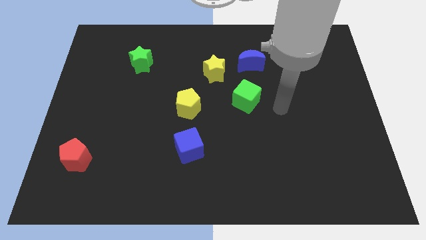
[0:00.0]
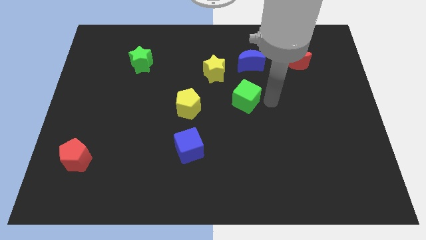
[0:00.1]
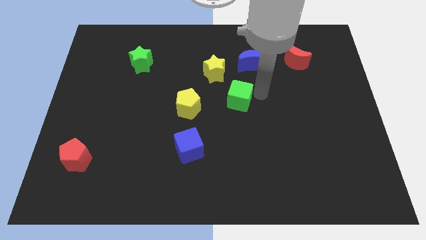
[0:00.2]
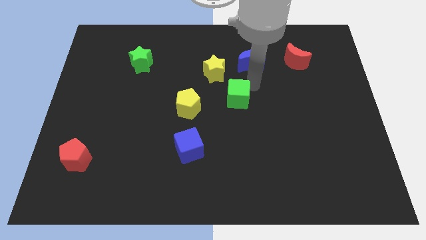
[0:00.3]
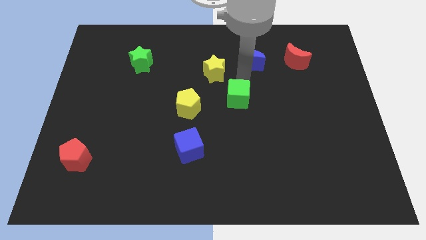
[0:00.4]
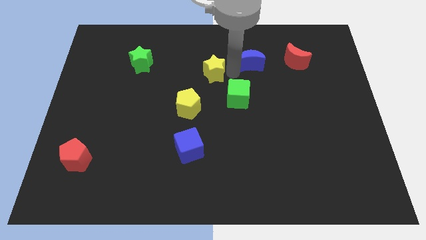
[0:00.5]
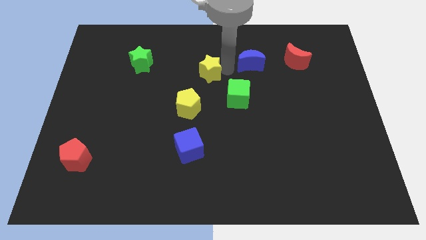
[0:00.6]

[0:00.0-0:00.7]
separate the blue moon from the yellow star

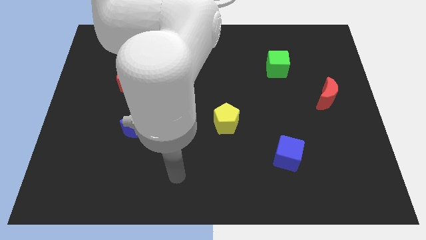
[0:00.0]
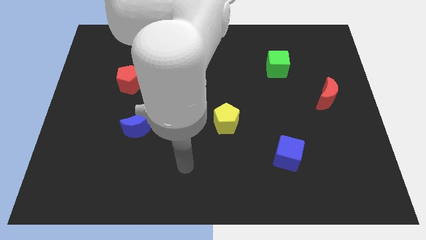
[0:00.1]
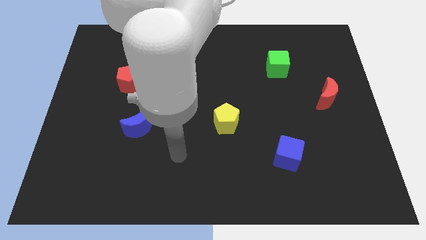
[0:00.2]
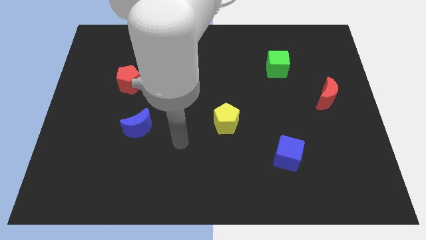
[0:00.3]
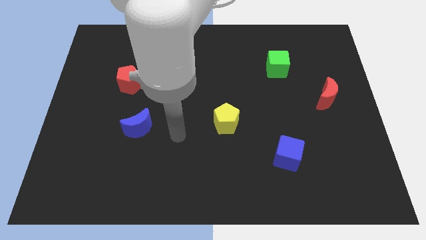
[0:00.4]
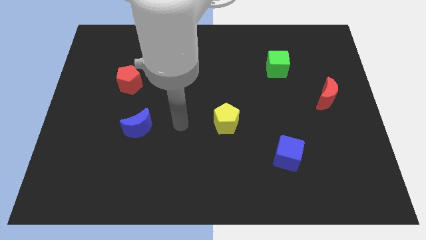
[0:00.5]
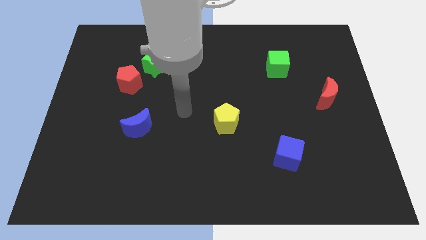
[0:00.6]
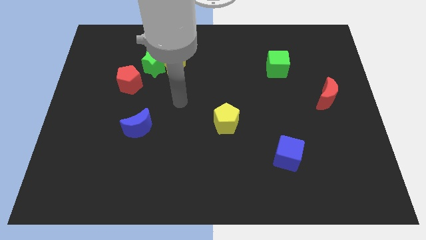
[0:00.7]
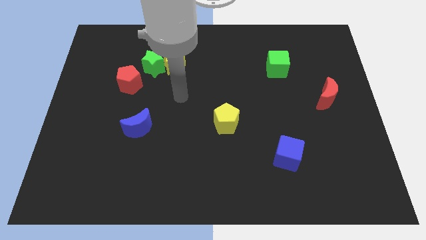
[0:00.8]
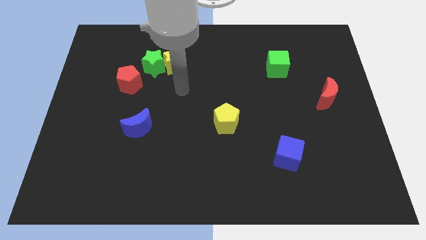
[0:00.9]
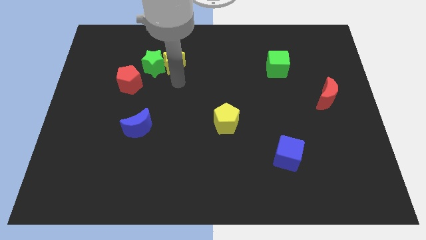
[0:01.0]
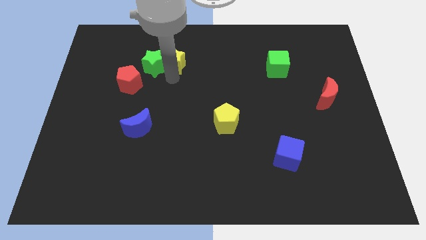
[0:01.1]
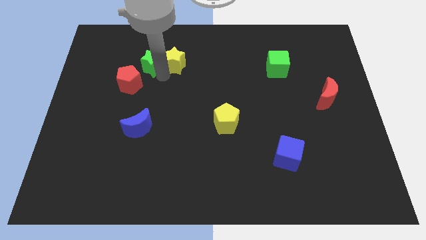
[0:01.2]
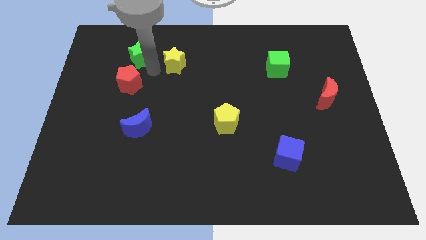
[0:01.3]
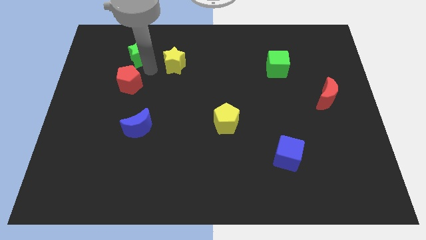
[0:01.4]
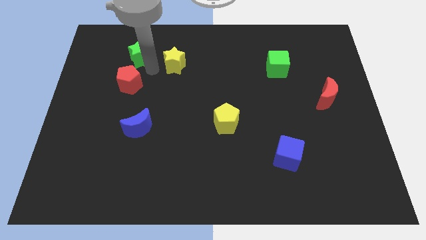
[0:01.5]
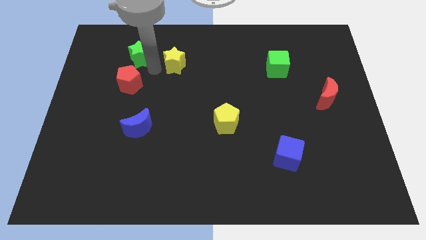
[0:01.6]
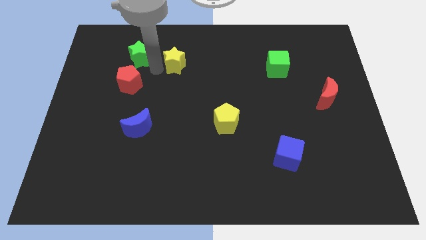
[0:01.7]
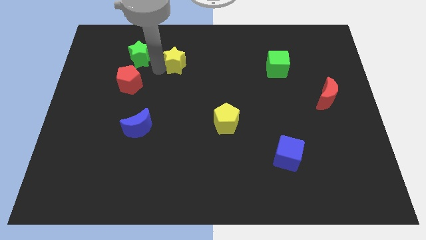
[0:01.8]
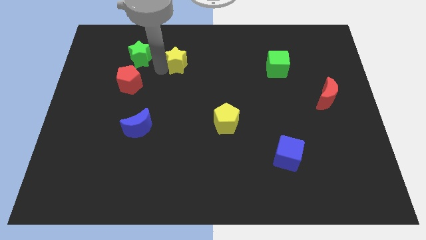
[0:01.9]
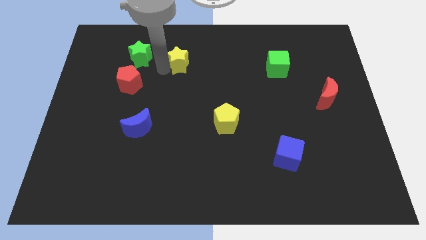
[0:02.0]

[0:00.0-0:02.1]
pull the yellow star apart from the green star

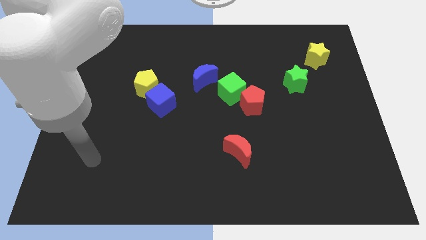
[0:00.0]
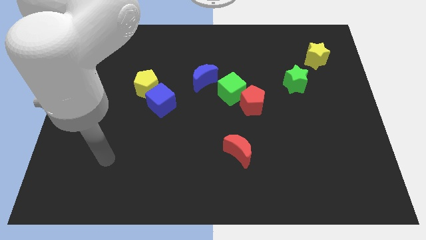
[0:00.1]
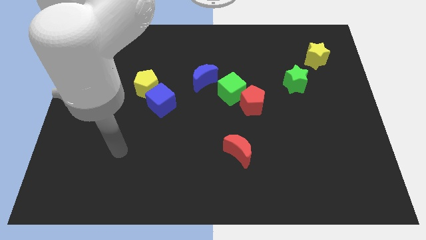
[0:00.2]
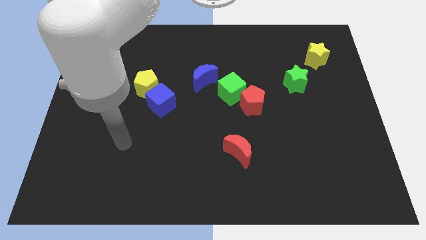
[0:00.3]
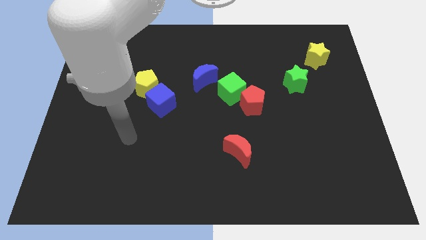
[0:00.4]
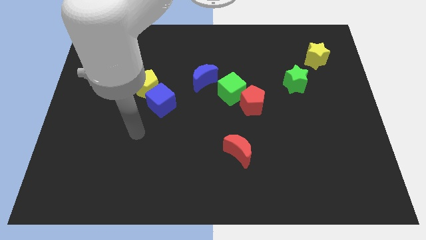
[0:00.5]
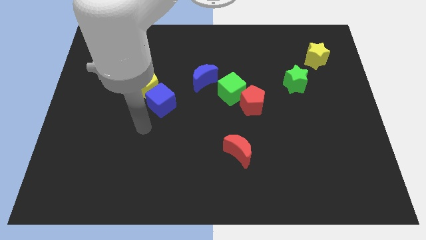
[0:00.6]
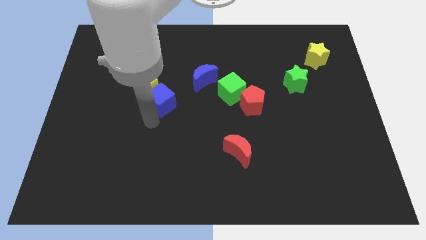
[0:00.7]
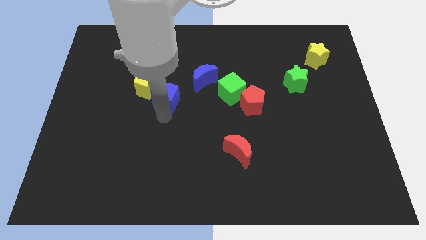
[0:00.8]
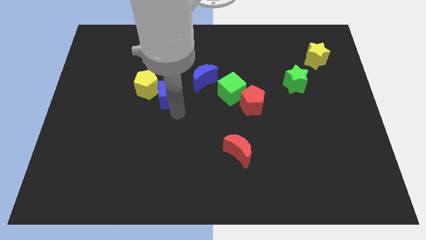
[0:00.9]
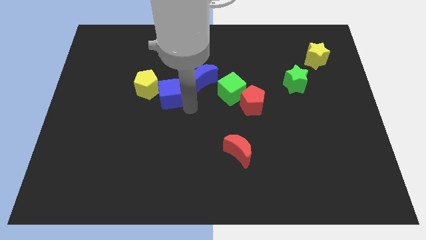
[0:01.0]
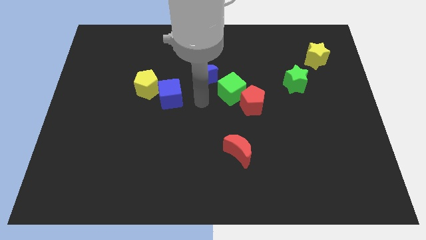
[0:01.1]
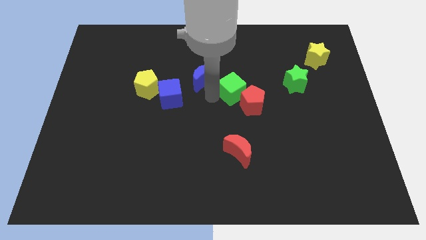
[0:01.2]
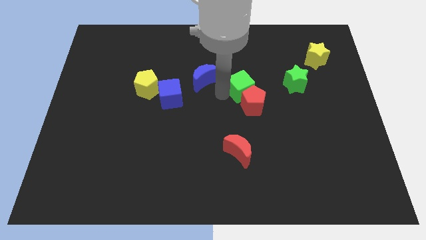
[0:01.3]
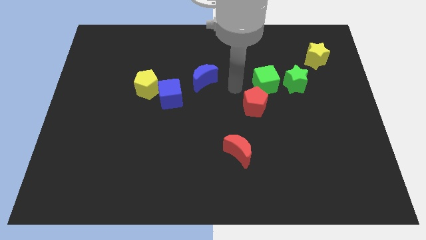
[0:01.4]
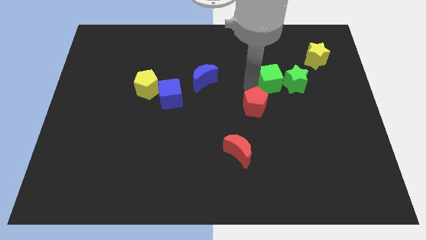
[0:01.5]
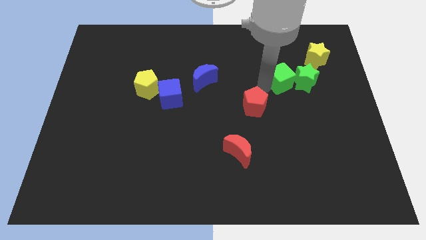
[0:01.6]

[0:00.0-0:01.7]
pull the red pentagon apart from the green cube

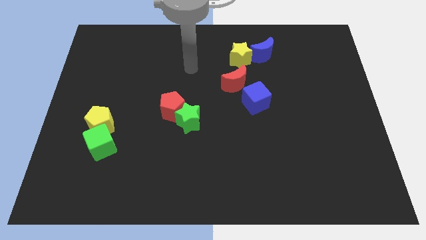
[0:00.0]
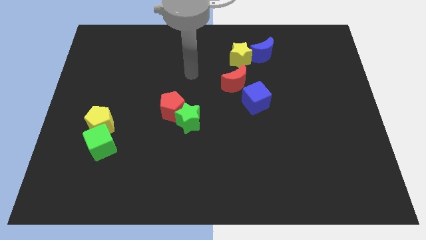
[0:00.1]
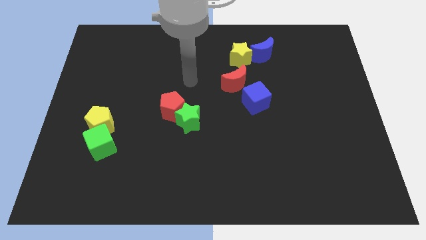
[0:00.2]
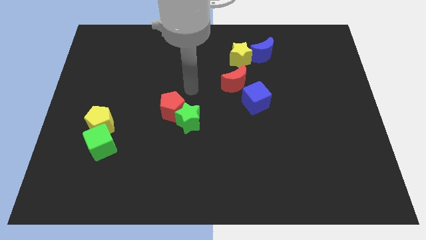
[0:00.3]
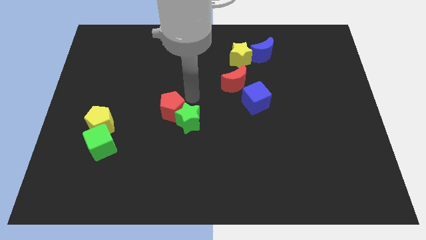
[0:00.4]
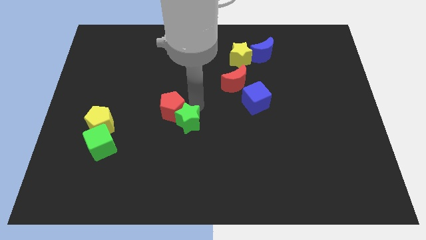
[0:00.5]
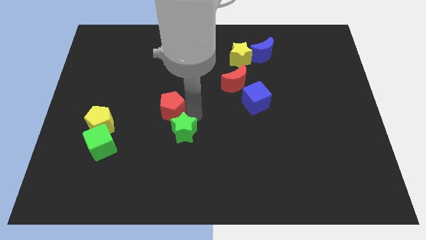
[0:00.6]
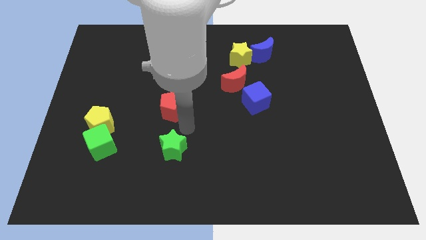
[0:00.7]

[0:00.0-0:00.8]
move the red pentagon away from the green star

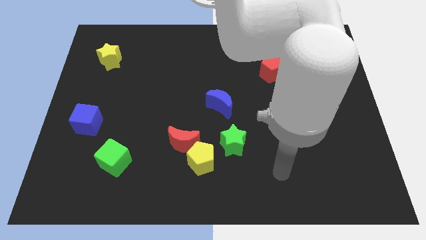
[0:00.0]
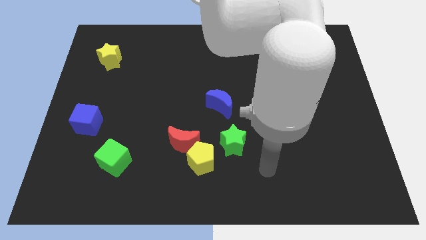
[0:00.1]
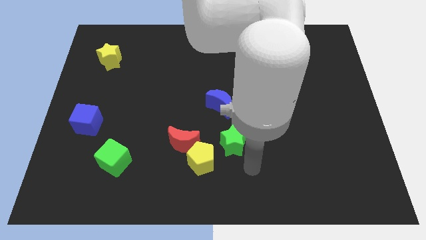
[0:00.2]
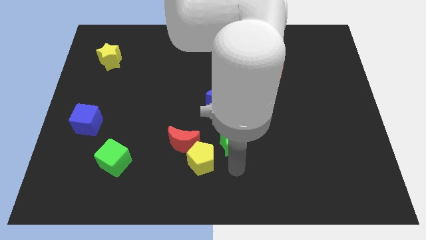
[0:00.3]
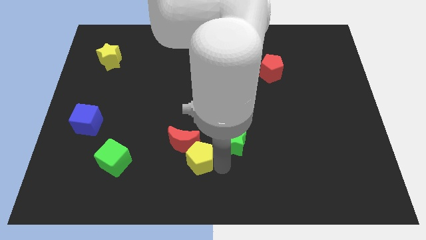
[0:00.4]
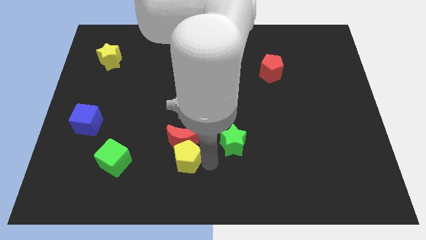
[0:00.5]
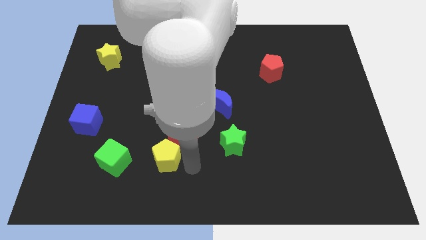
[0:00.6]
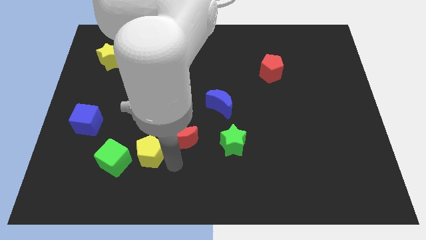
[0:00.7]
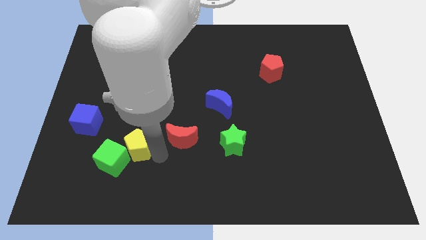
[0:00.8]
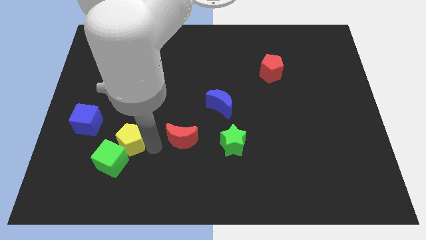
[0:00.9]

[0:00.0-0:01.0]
separate the red moon from the yellow pentagon

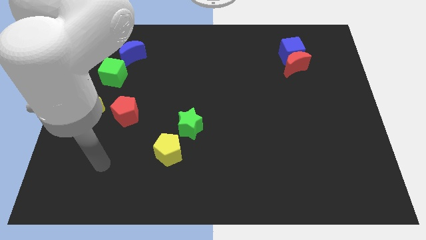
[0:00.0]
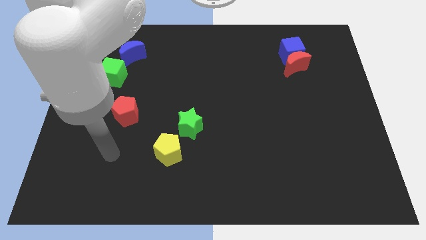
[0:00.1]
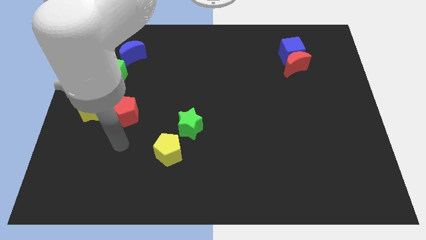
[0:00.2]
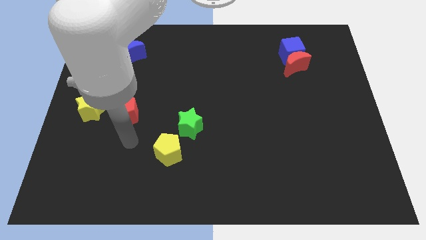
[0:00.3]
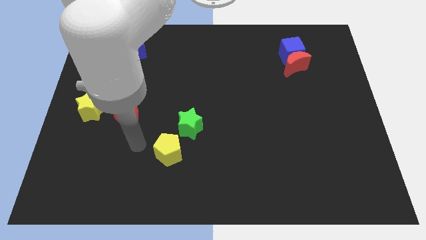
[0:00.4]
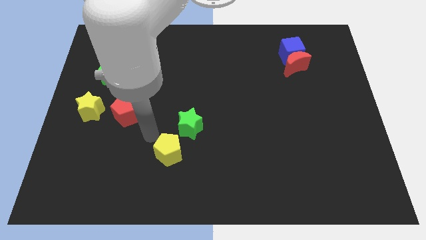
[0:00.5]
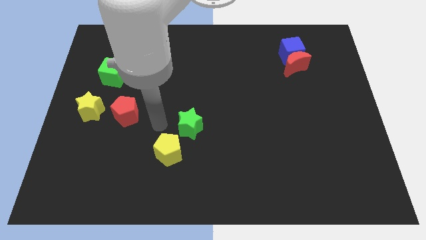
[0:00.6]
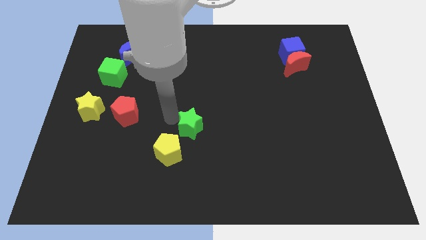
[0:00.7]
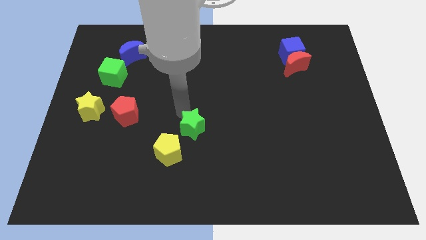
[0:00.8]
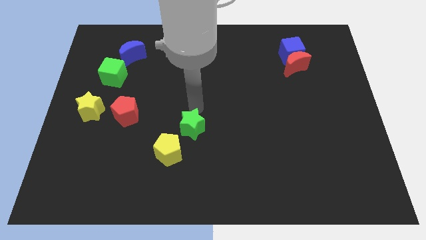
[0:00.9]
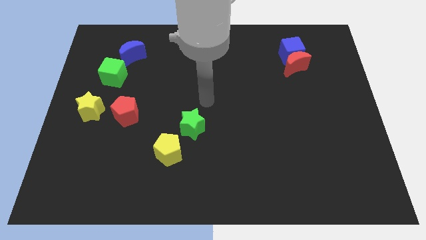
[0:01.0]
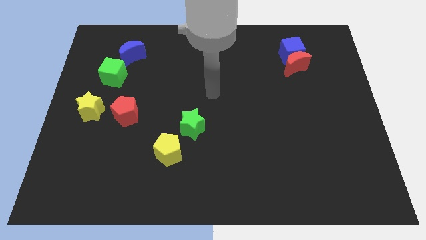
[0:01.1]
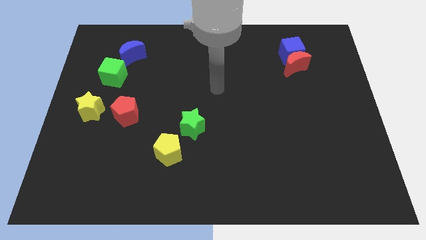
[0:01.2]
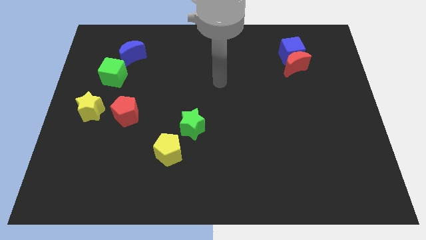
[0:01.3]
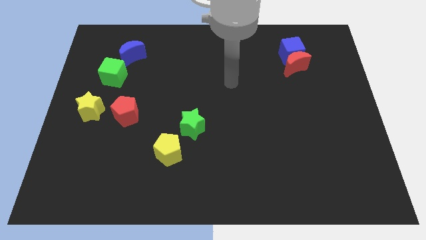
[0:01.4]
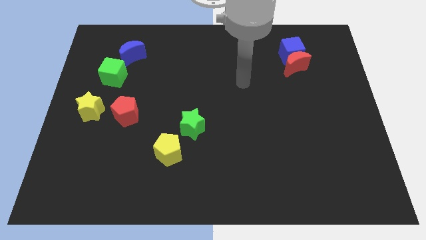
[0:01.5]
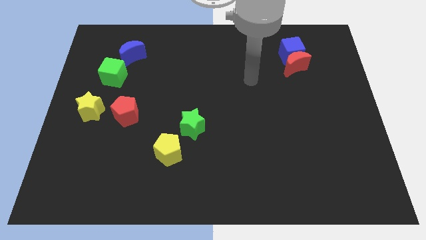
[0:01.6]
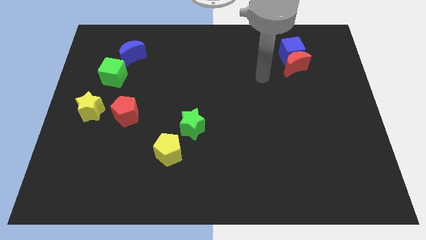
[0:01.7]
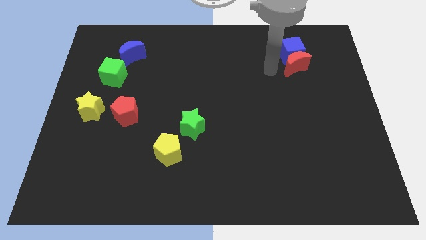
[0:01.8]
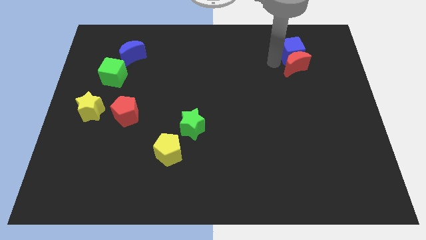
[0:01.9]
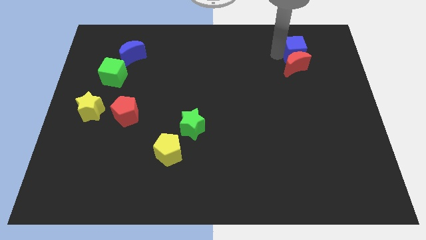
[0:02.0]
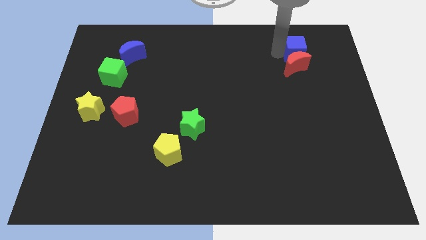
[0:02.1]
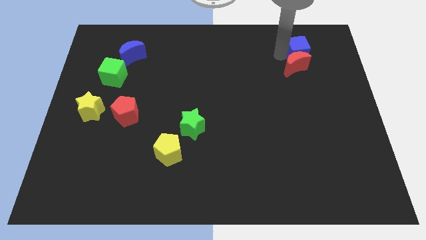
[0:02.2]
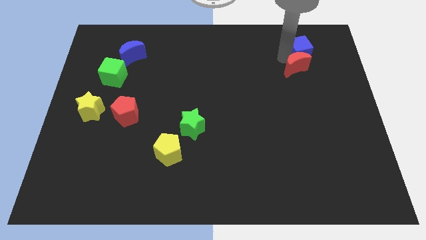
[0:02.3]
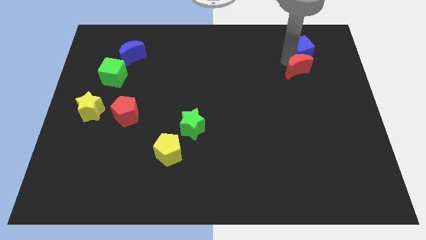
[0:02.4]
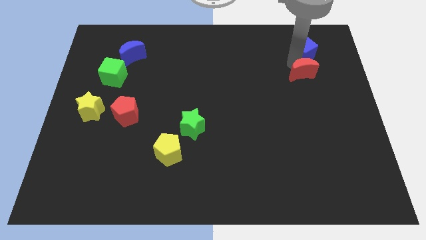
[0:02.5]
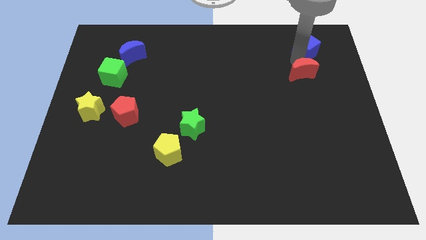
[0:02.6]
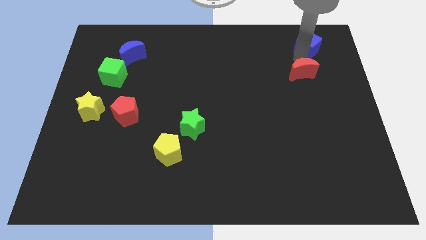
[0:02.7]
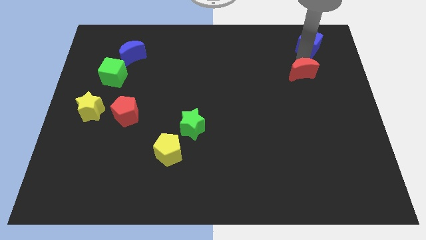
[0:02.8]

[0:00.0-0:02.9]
separate the red moon from the blue cube

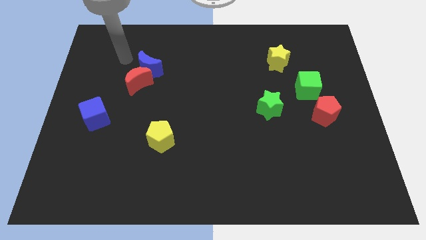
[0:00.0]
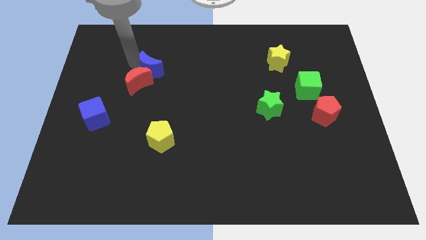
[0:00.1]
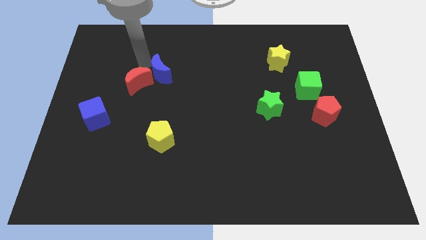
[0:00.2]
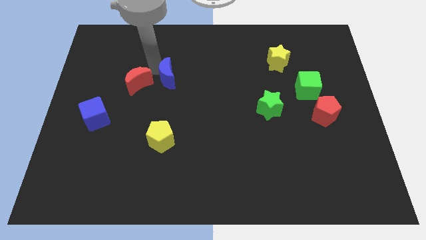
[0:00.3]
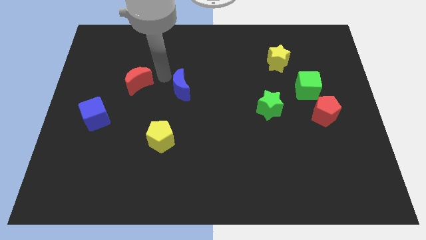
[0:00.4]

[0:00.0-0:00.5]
move the red moon away from the blue moon
